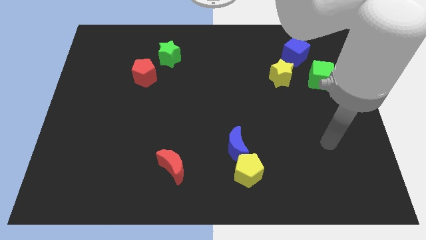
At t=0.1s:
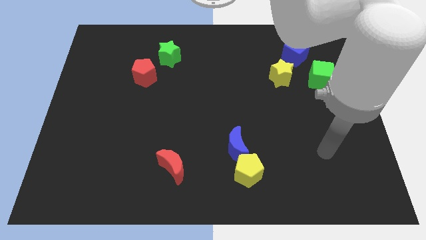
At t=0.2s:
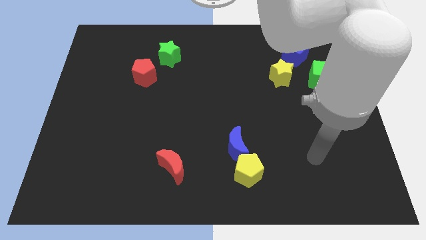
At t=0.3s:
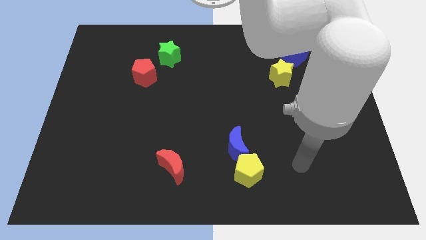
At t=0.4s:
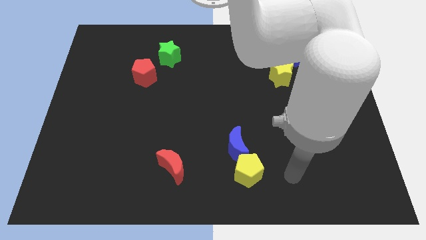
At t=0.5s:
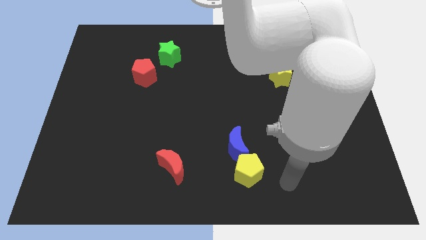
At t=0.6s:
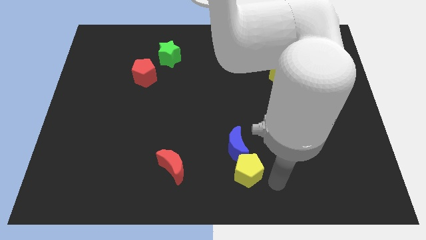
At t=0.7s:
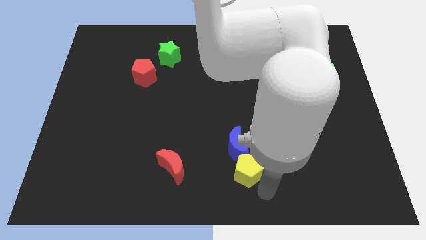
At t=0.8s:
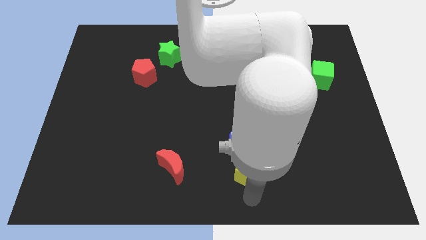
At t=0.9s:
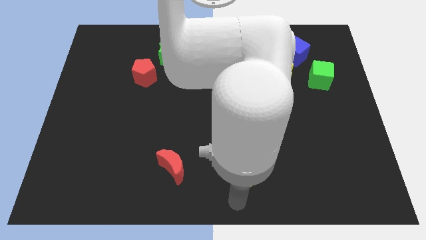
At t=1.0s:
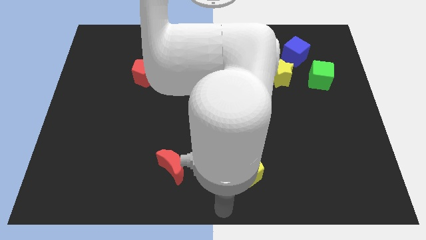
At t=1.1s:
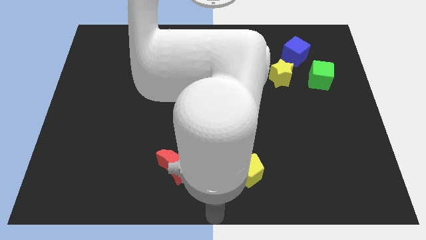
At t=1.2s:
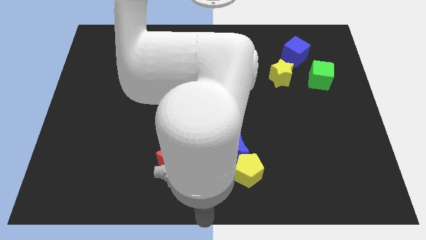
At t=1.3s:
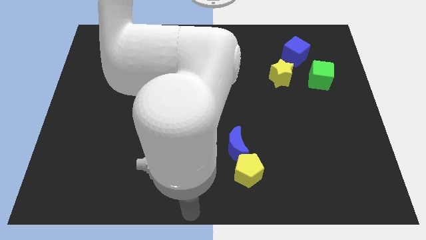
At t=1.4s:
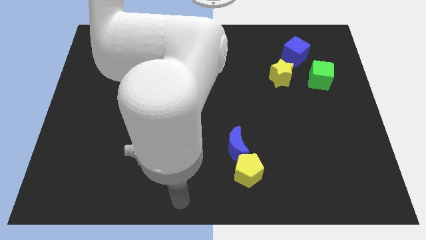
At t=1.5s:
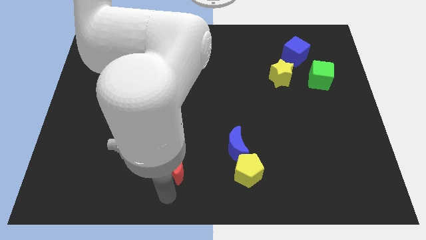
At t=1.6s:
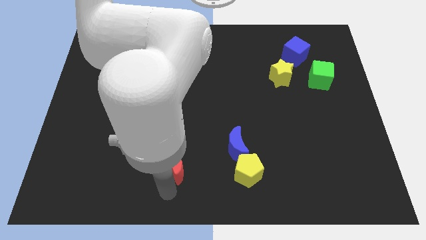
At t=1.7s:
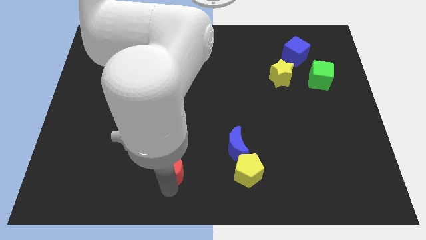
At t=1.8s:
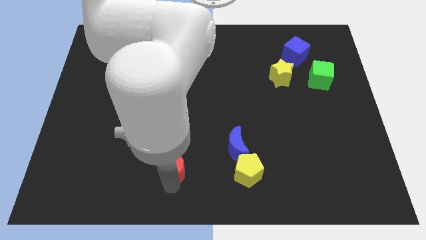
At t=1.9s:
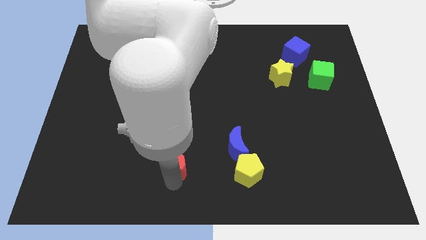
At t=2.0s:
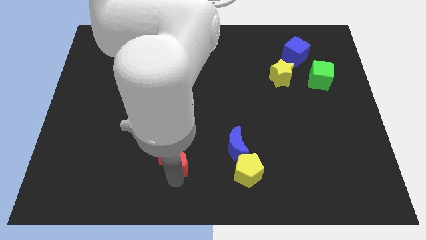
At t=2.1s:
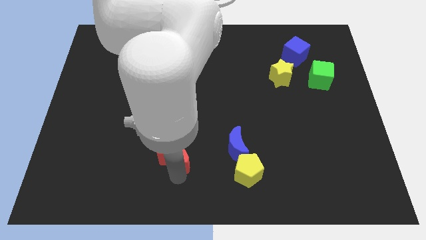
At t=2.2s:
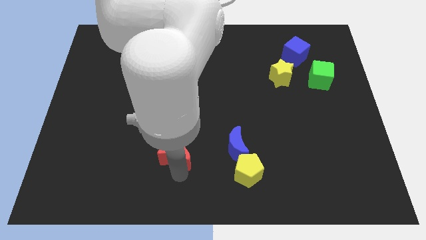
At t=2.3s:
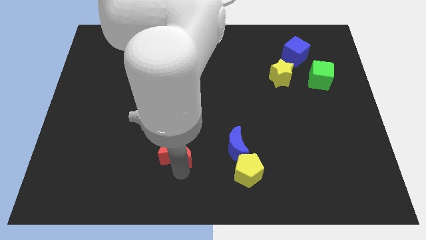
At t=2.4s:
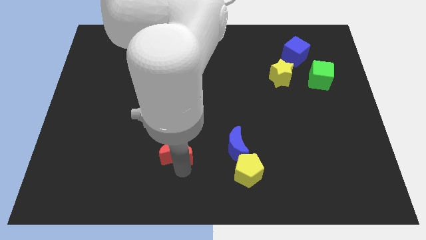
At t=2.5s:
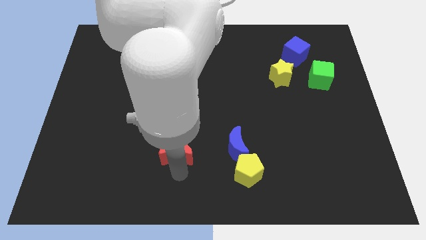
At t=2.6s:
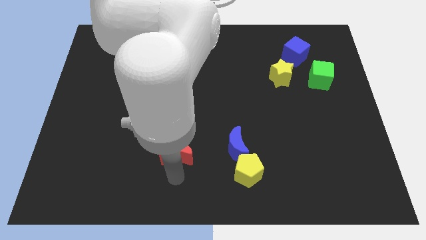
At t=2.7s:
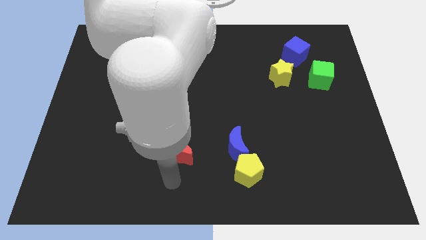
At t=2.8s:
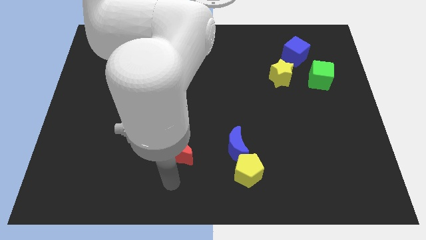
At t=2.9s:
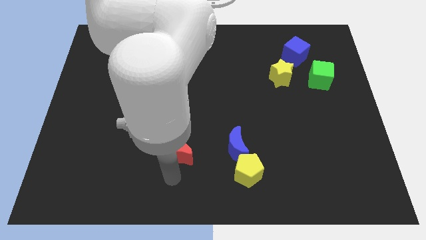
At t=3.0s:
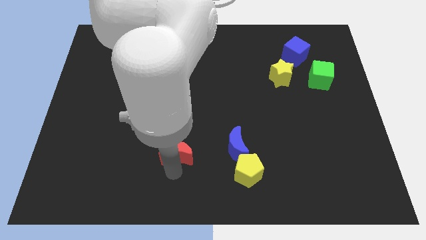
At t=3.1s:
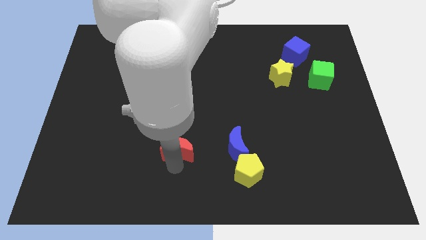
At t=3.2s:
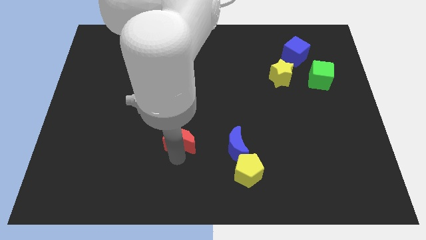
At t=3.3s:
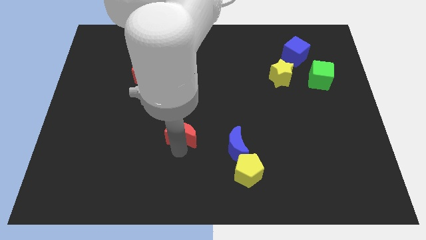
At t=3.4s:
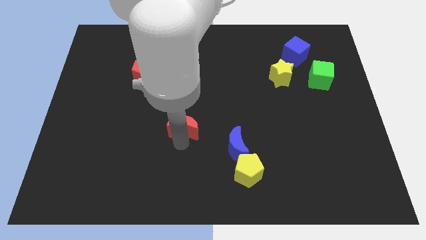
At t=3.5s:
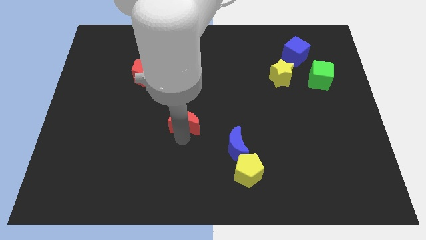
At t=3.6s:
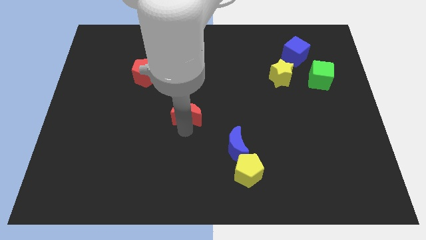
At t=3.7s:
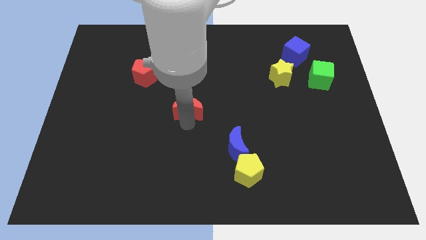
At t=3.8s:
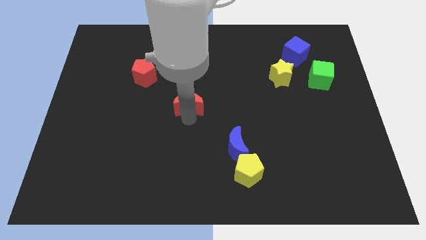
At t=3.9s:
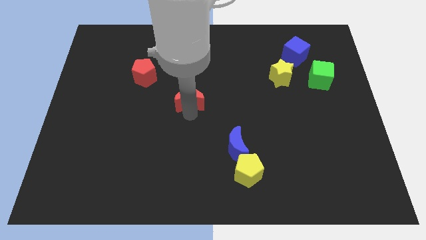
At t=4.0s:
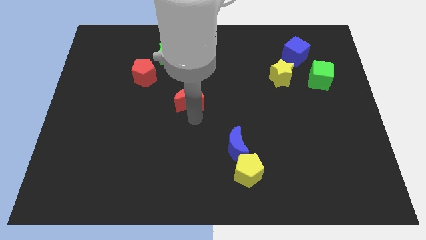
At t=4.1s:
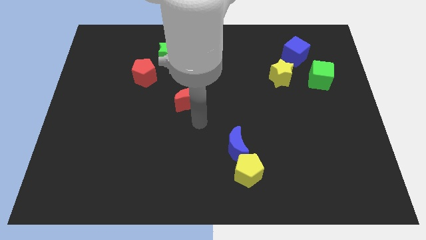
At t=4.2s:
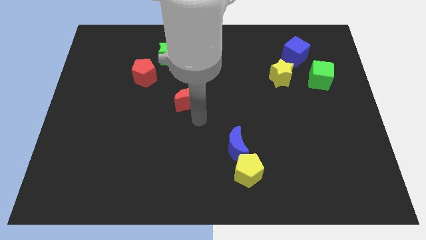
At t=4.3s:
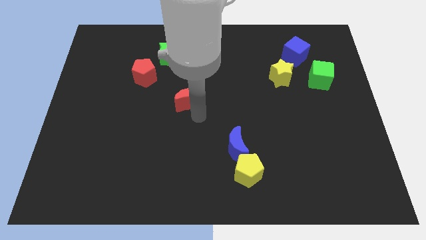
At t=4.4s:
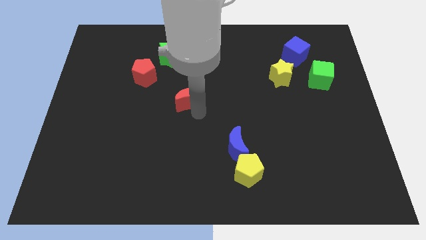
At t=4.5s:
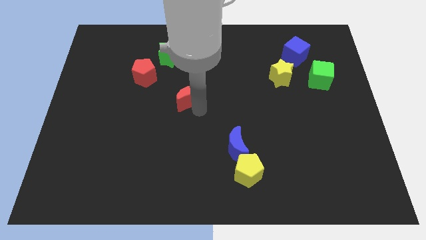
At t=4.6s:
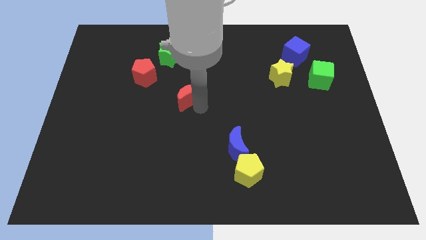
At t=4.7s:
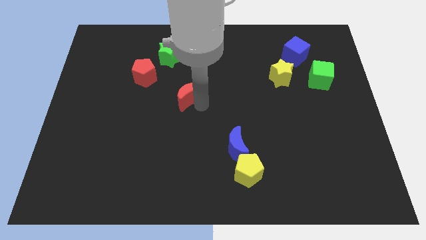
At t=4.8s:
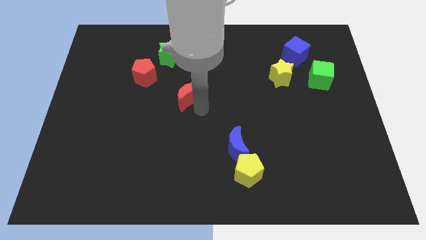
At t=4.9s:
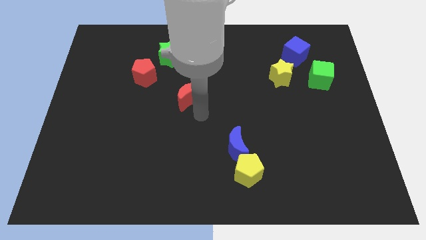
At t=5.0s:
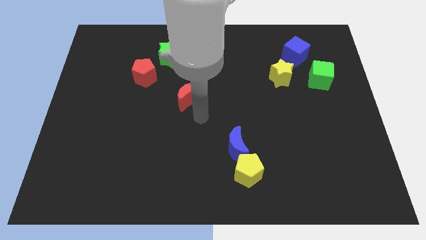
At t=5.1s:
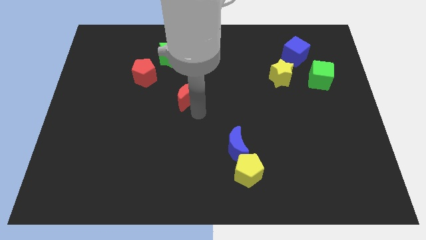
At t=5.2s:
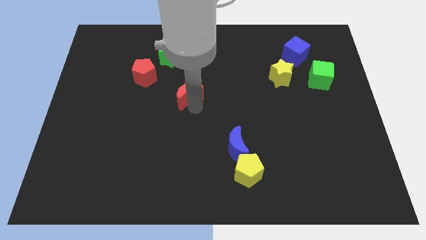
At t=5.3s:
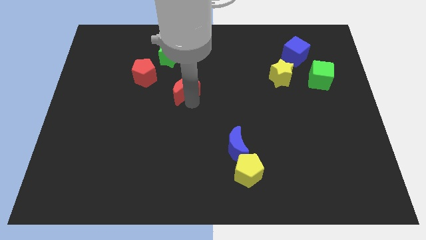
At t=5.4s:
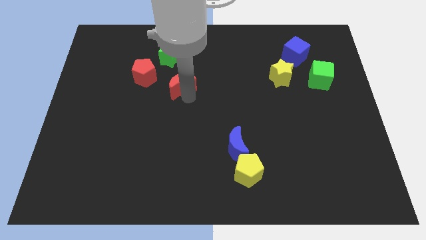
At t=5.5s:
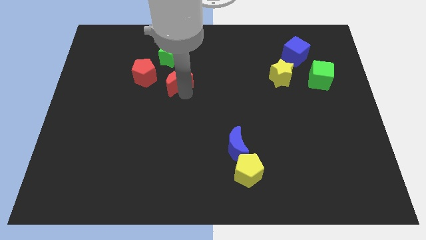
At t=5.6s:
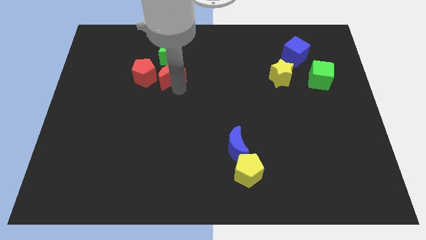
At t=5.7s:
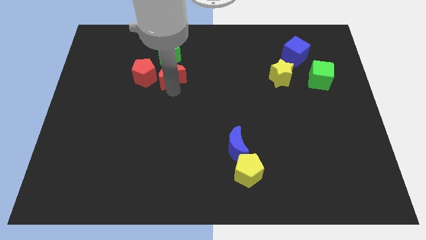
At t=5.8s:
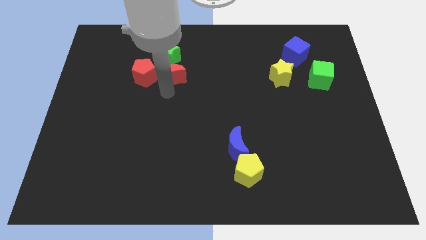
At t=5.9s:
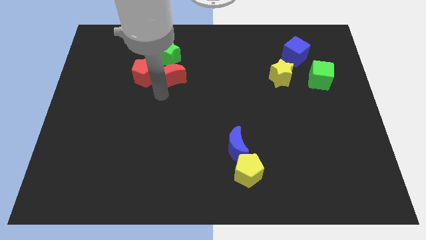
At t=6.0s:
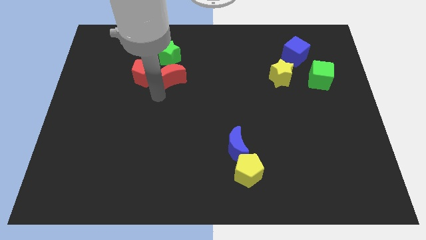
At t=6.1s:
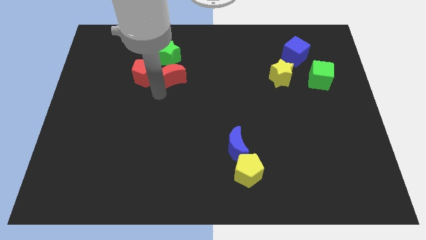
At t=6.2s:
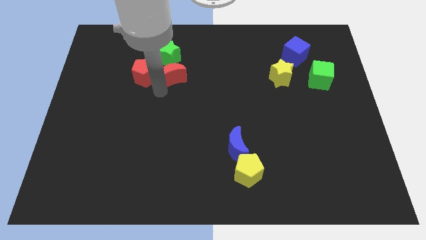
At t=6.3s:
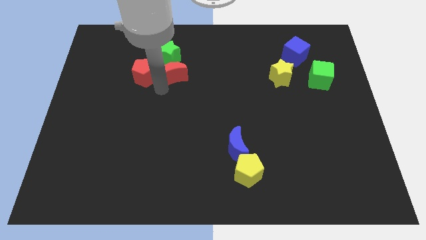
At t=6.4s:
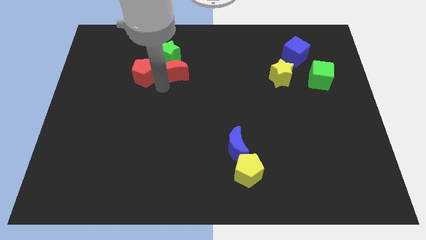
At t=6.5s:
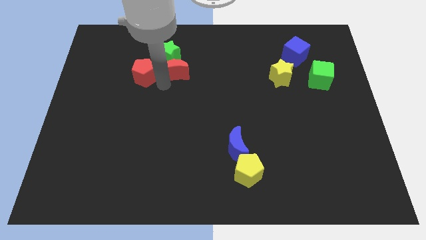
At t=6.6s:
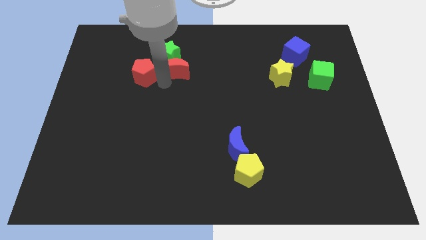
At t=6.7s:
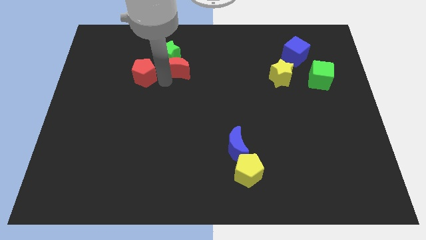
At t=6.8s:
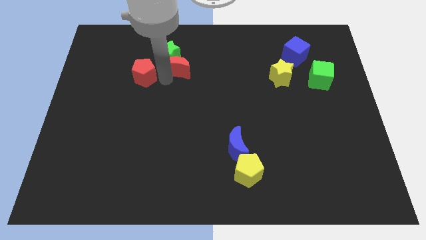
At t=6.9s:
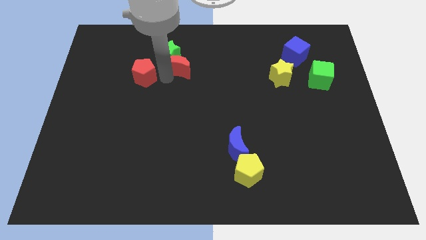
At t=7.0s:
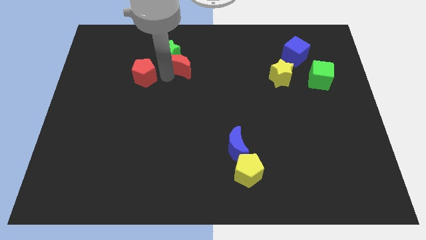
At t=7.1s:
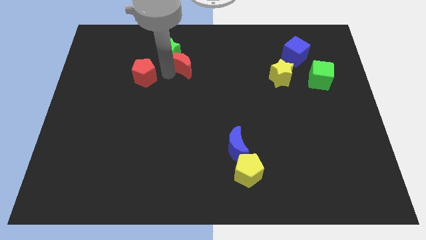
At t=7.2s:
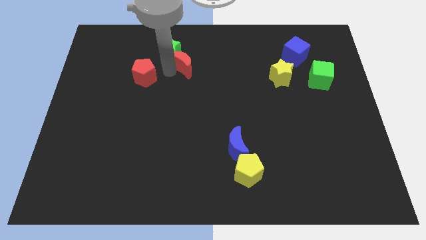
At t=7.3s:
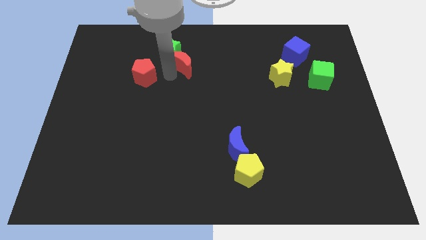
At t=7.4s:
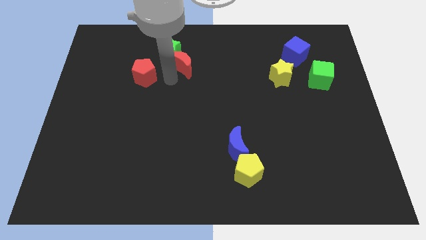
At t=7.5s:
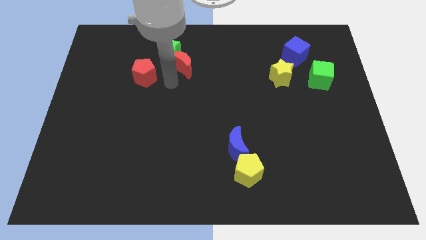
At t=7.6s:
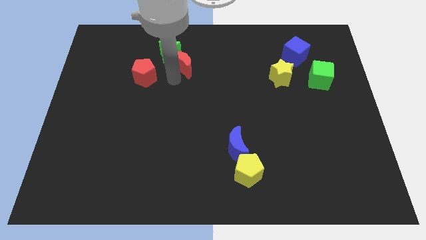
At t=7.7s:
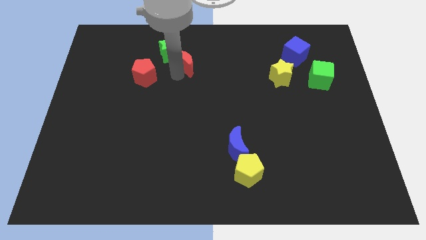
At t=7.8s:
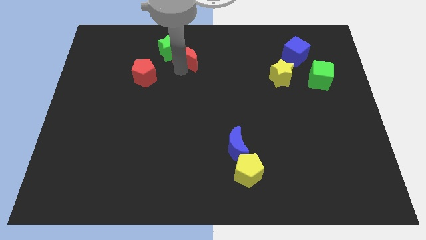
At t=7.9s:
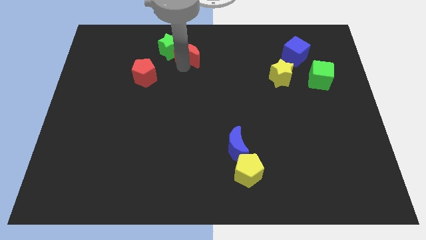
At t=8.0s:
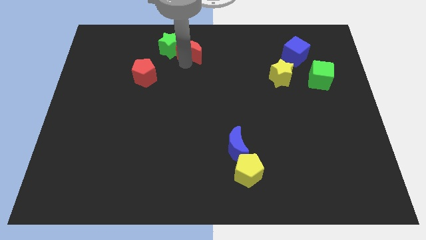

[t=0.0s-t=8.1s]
push the red moon to the towards your base
